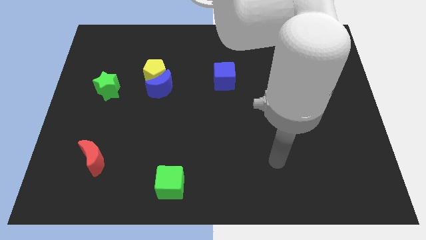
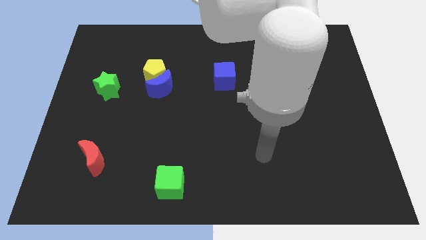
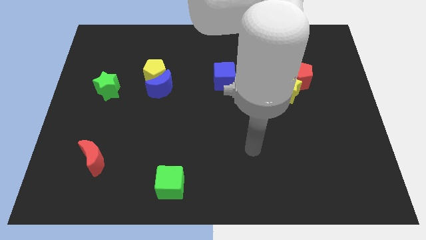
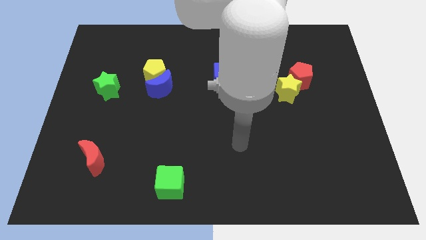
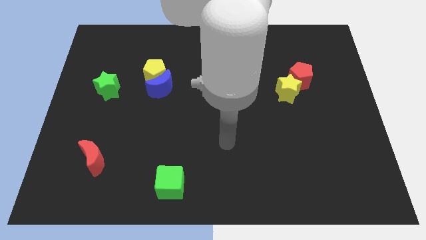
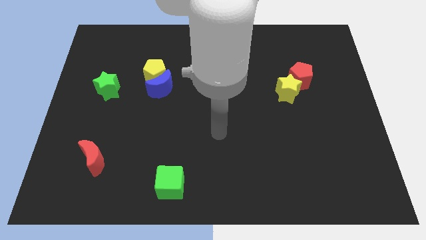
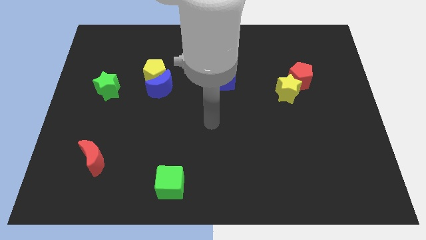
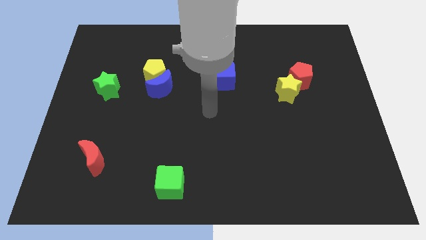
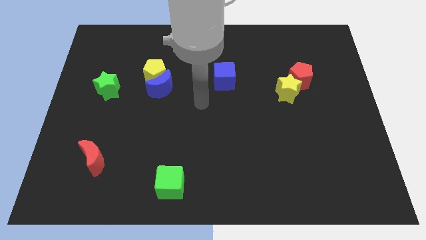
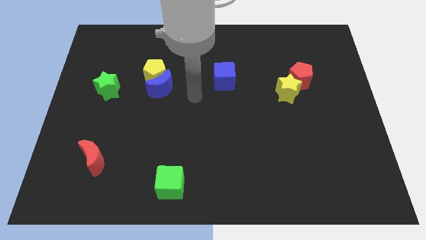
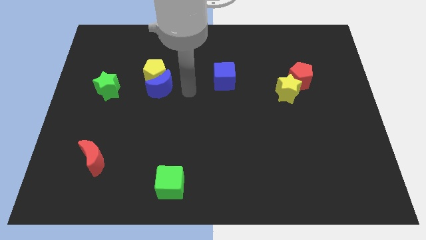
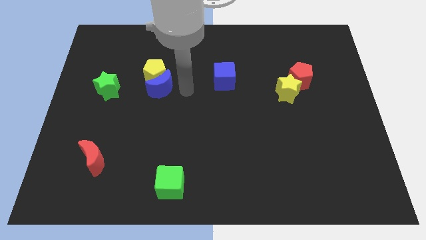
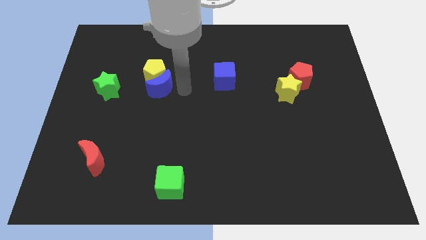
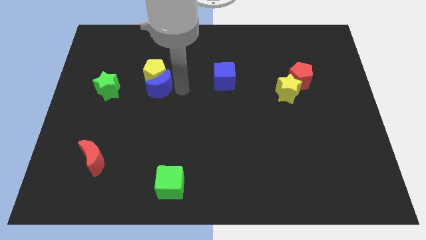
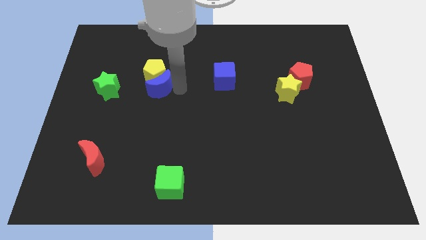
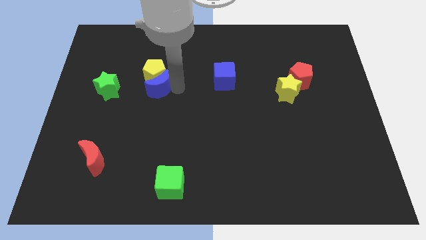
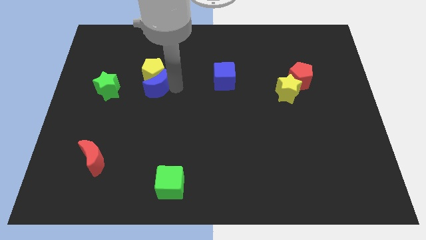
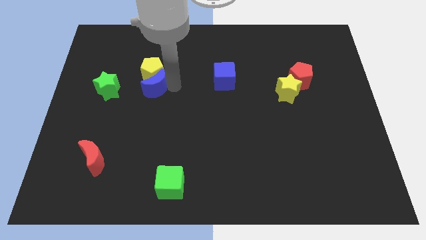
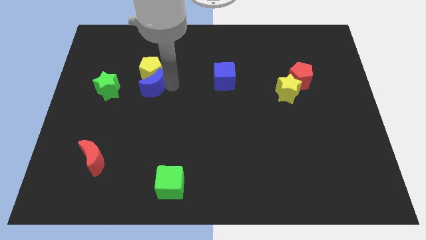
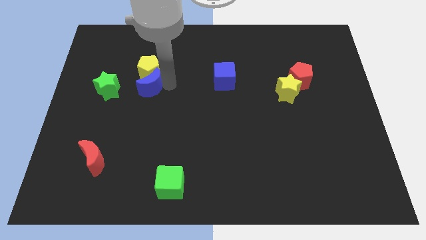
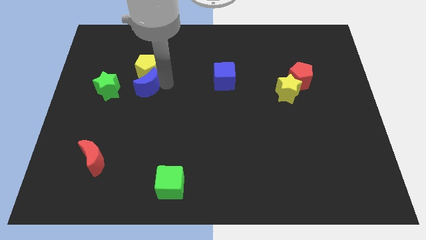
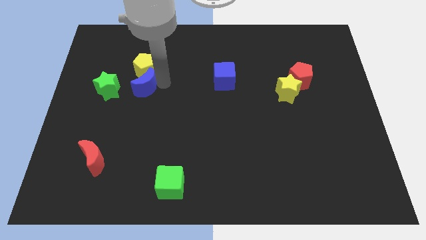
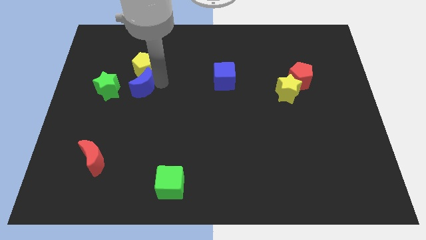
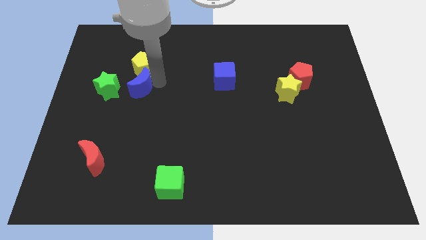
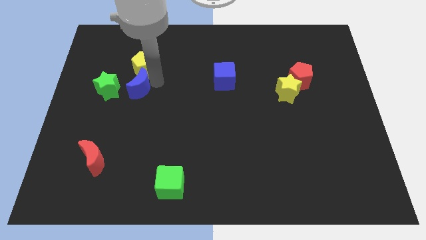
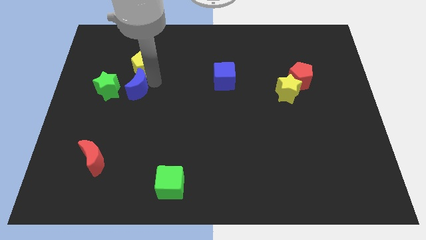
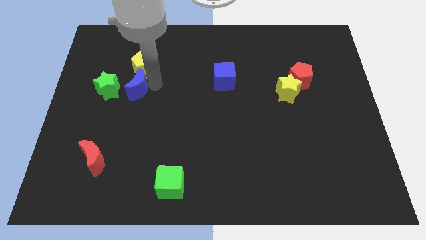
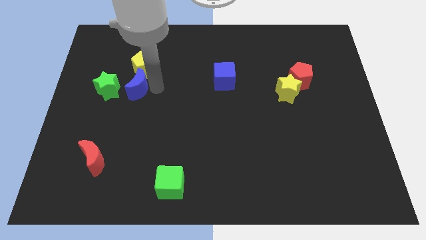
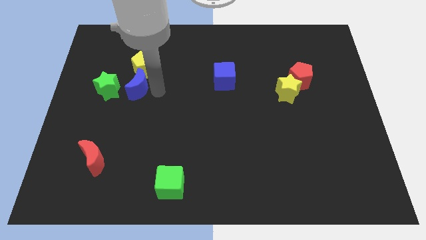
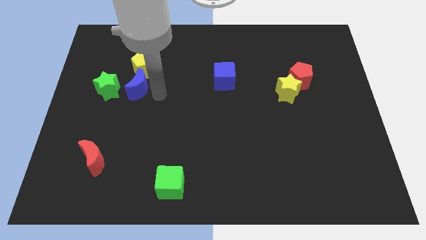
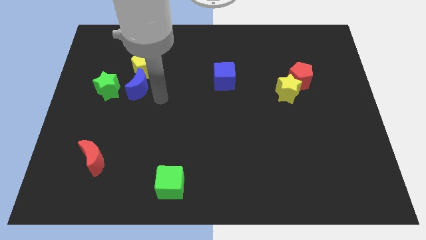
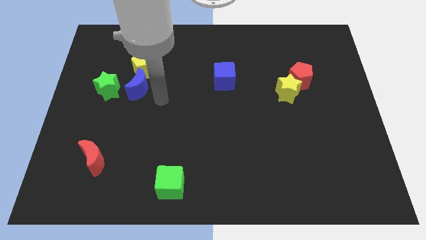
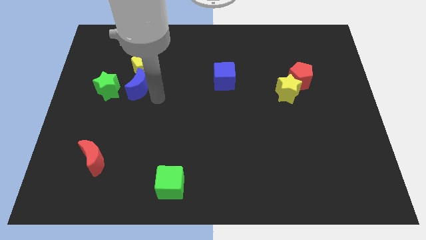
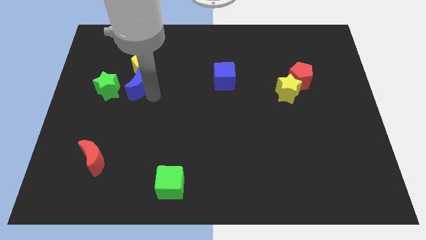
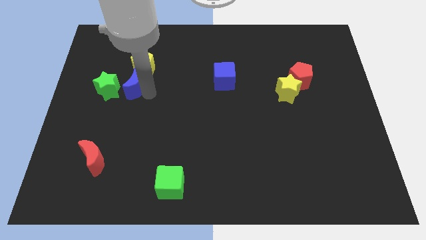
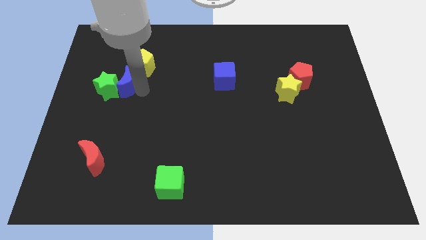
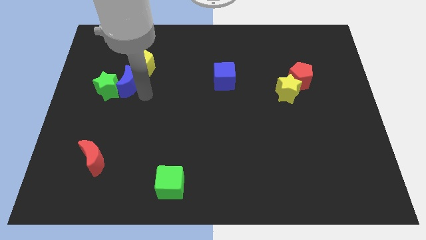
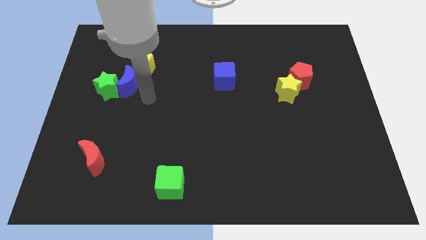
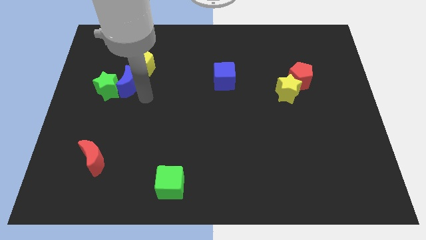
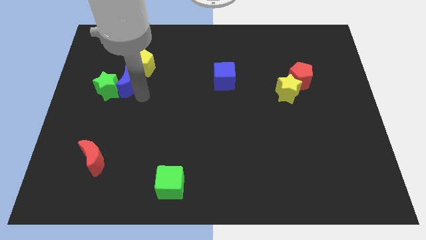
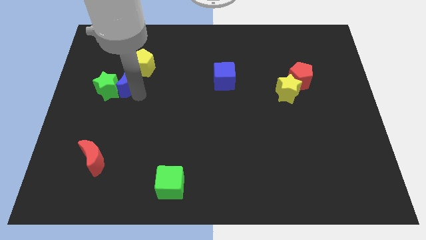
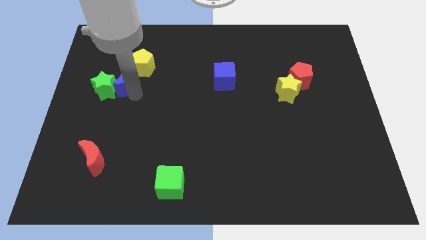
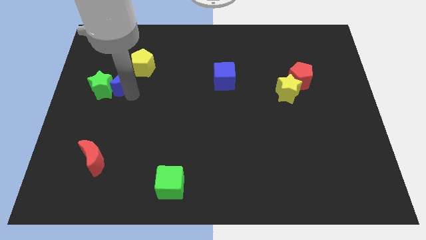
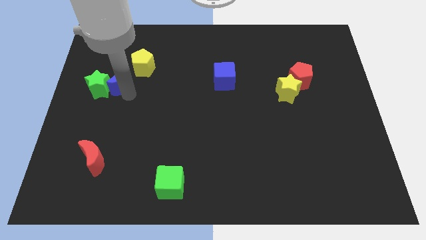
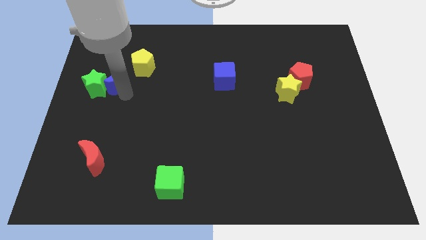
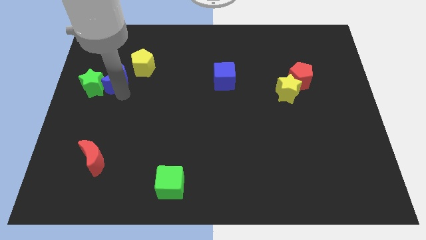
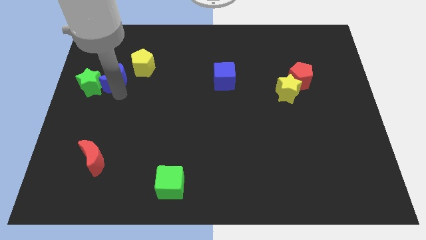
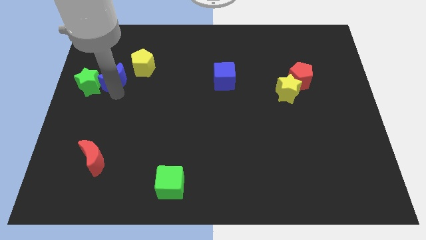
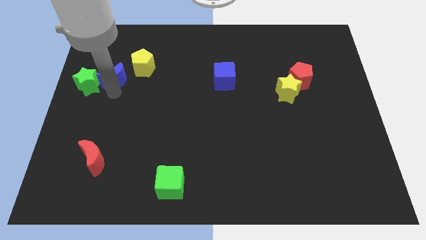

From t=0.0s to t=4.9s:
slide the blue moon left of the yellow pentagon

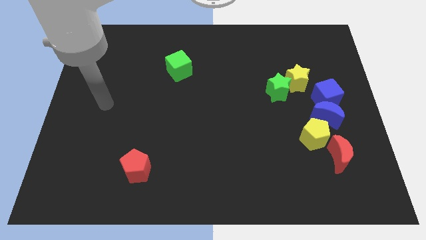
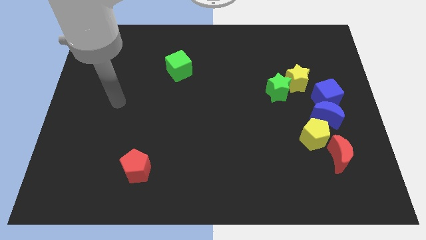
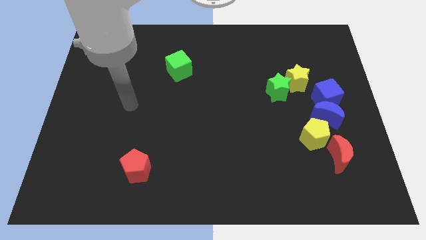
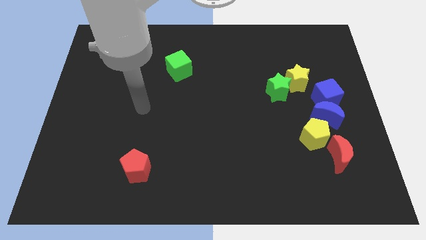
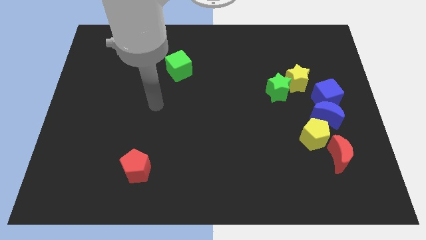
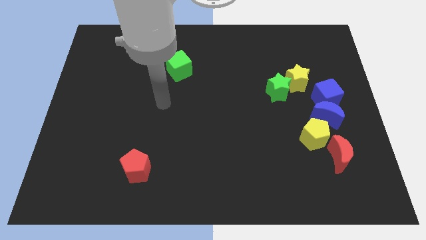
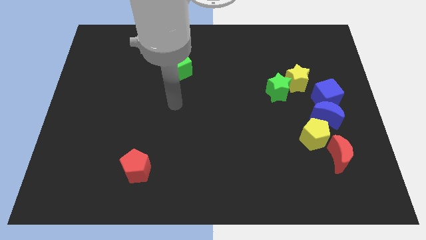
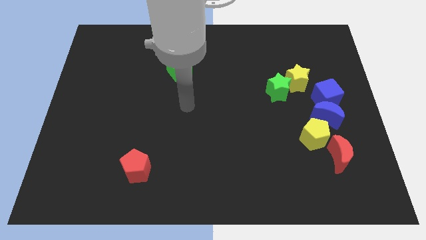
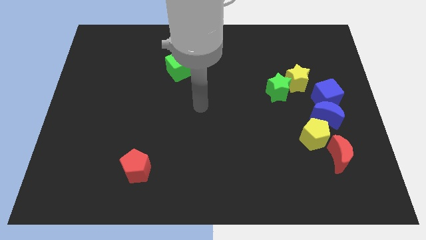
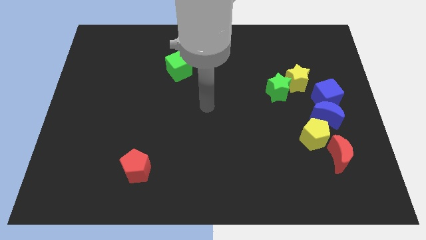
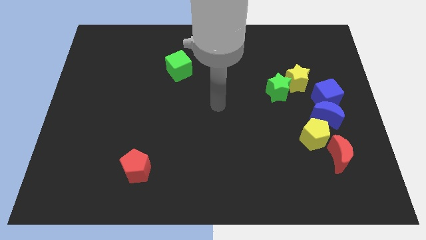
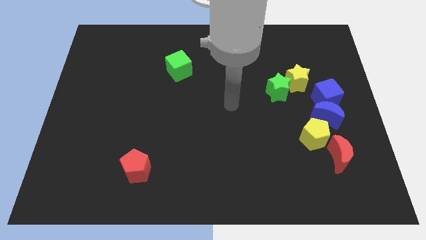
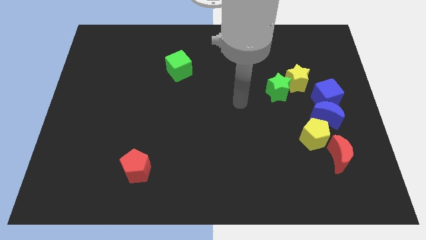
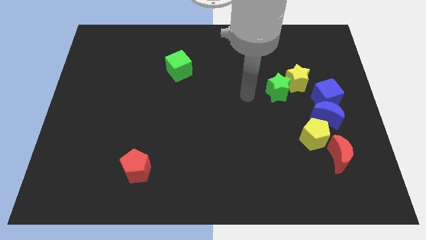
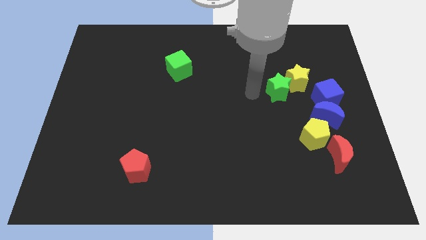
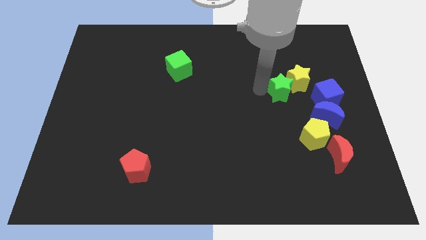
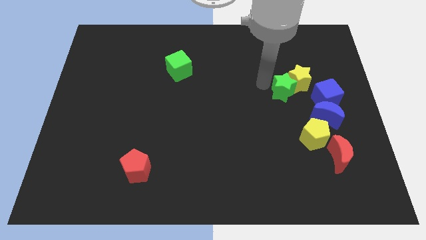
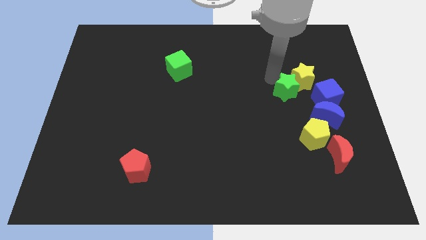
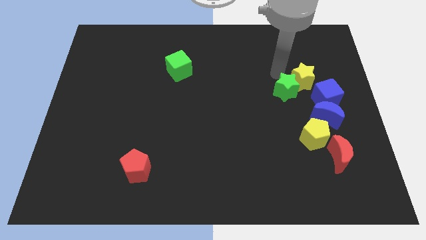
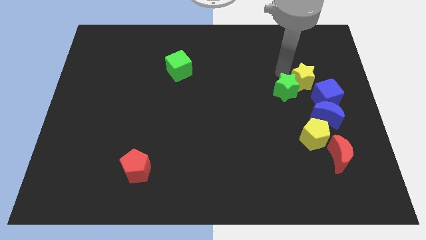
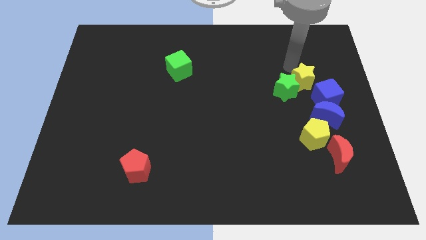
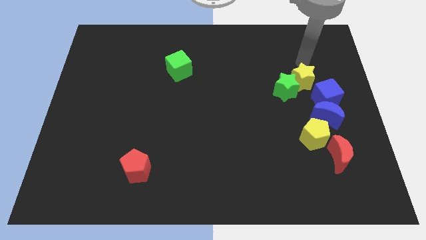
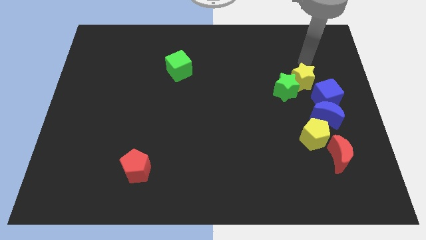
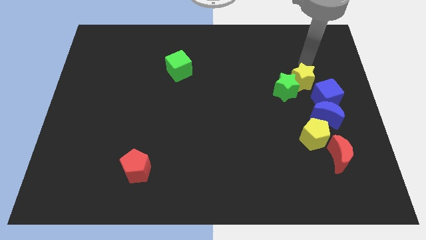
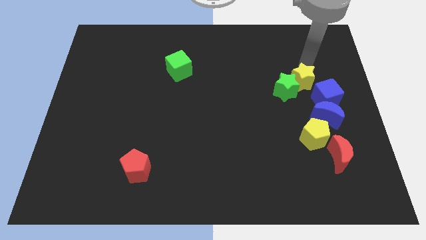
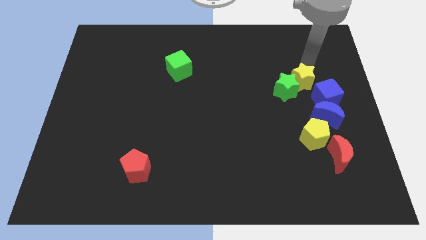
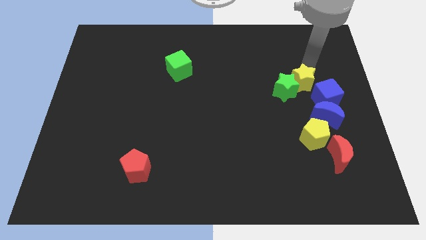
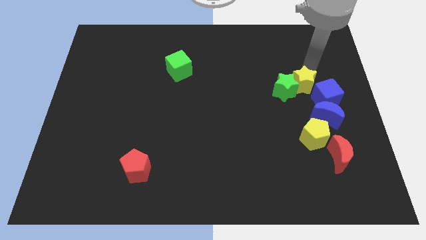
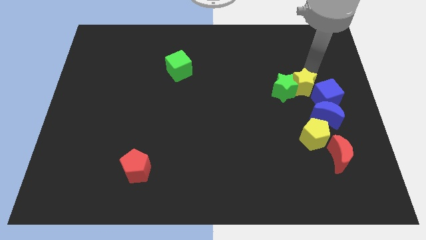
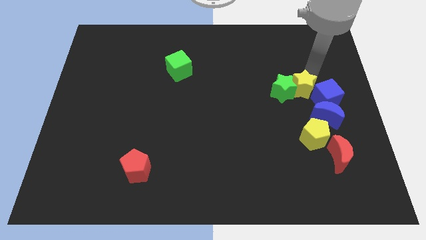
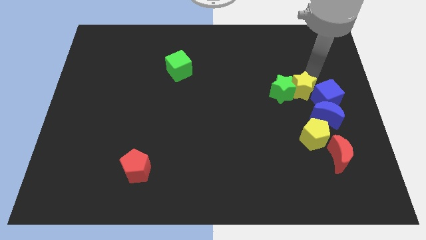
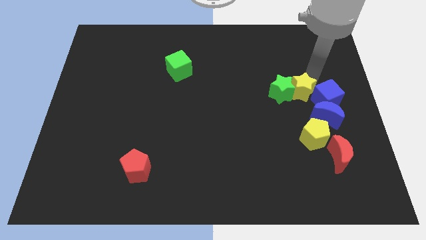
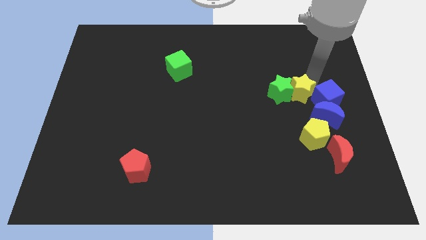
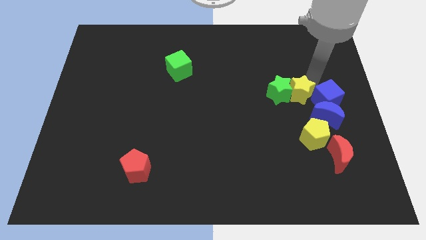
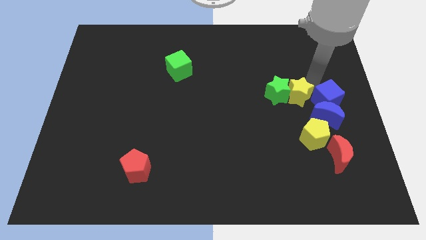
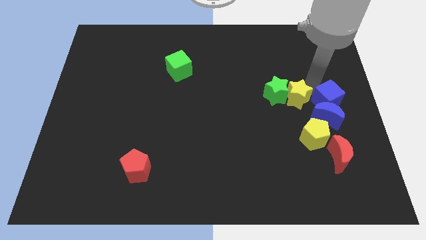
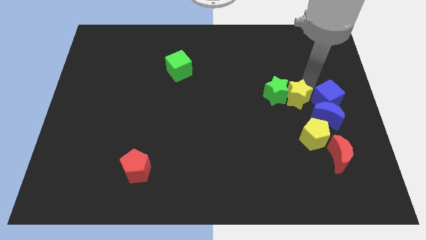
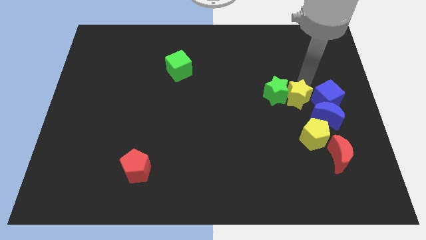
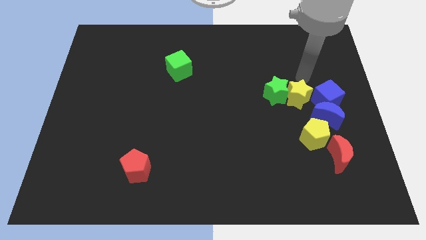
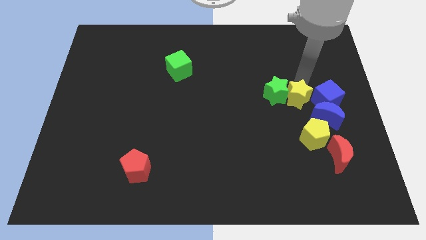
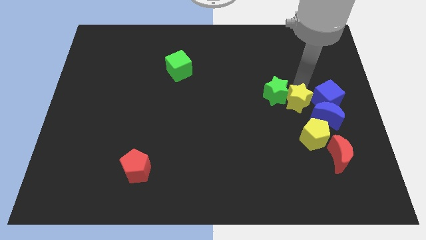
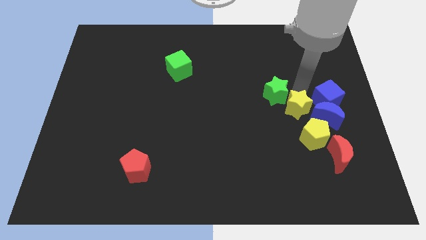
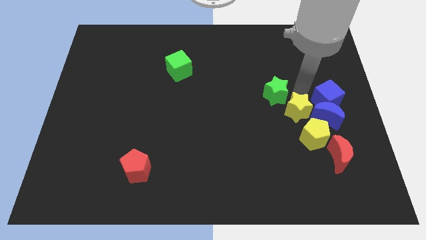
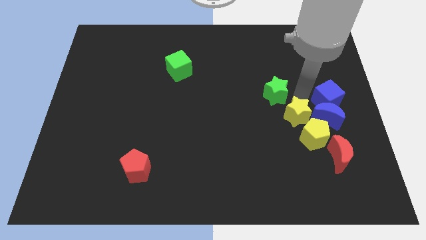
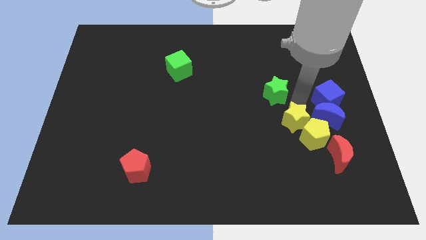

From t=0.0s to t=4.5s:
move the yellow star diagonally down and to the left of the blue moon
